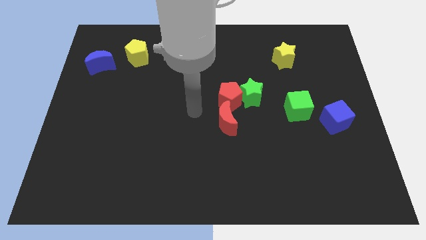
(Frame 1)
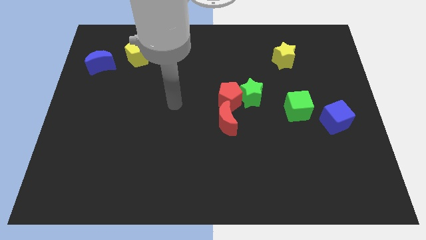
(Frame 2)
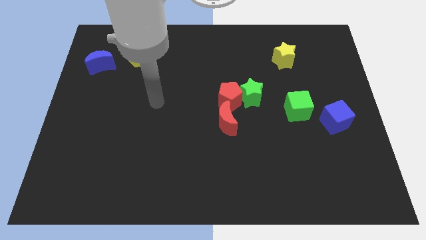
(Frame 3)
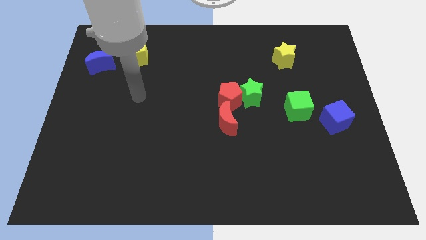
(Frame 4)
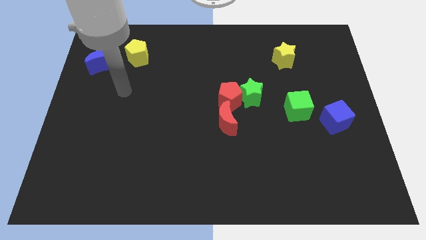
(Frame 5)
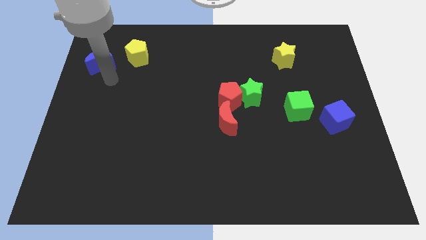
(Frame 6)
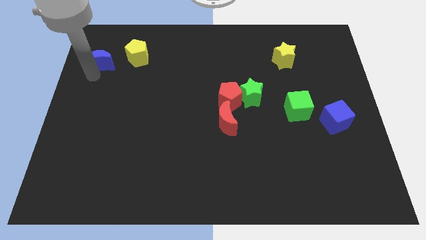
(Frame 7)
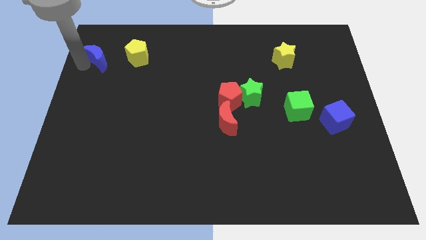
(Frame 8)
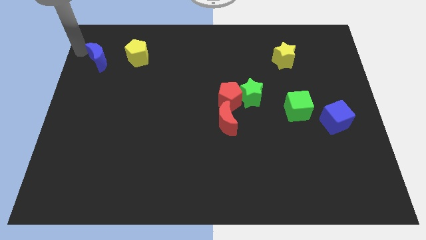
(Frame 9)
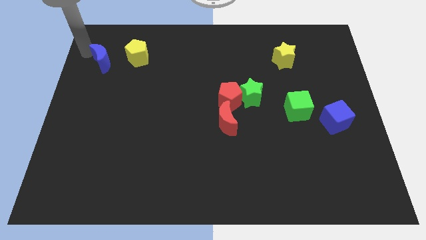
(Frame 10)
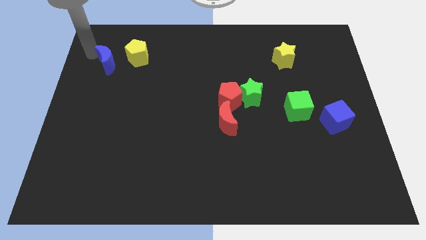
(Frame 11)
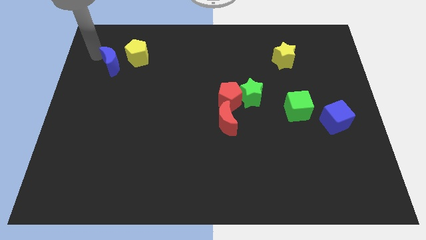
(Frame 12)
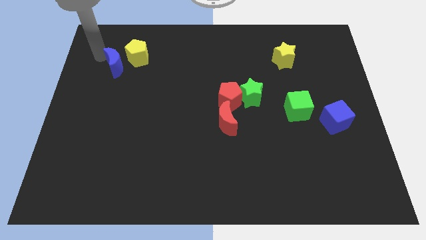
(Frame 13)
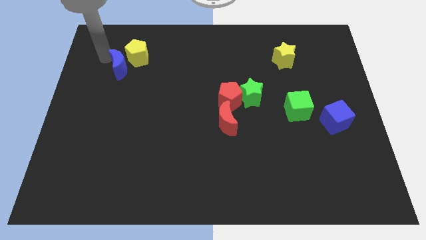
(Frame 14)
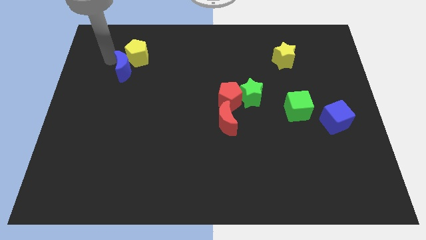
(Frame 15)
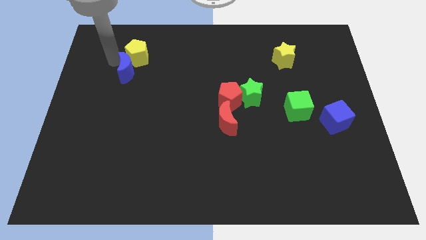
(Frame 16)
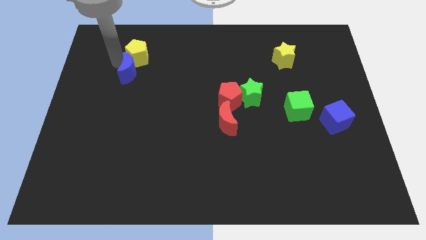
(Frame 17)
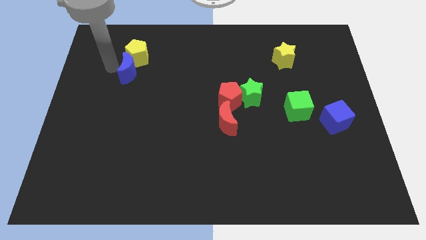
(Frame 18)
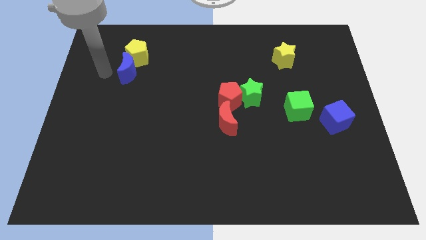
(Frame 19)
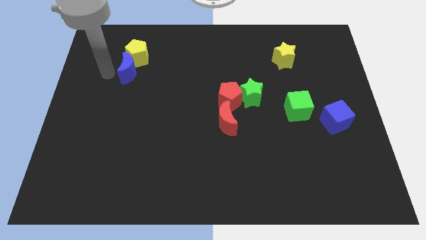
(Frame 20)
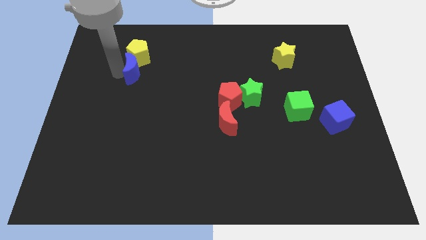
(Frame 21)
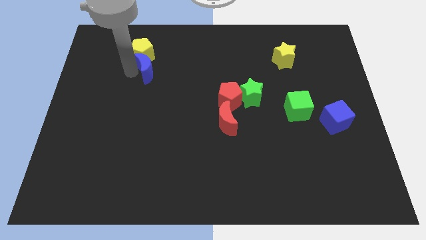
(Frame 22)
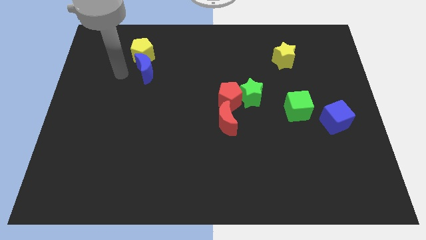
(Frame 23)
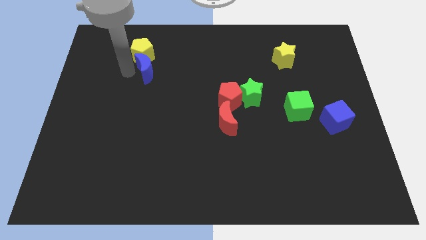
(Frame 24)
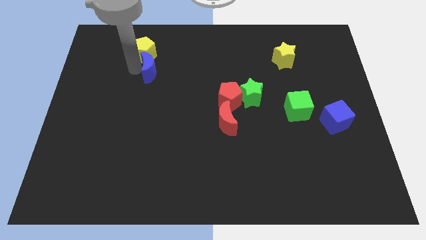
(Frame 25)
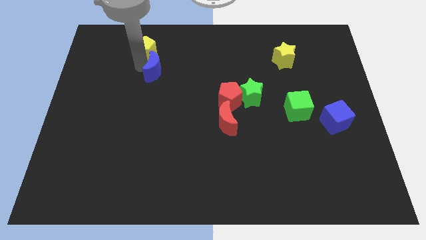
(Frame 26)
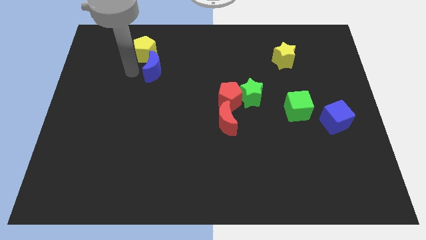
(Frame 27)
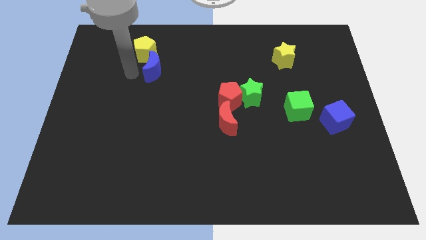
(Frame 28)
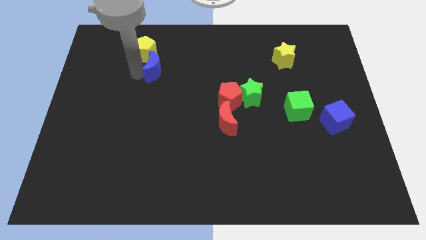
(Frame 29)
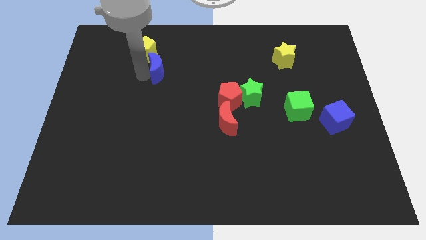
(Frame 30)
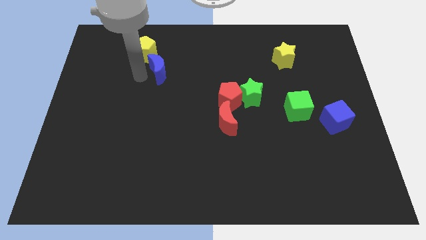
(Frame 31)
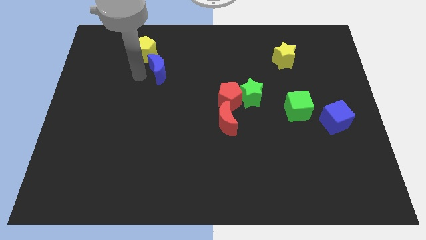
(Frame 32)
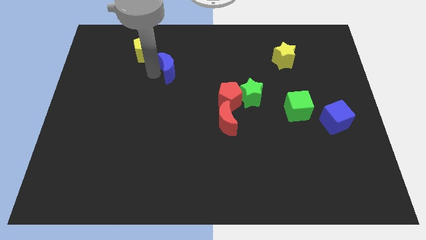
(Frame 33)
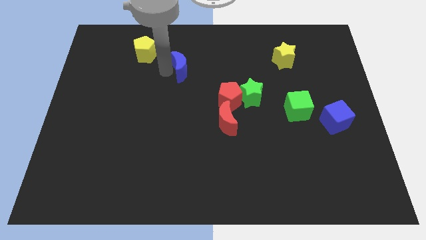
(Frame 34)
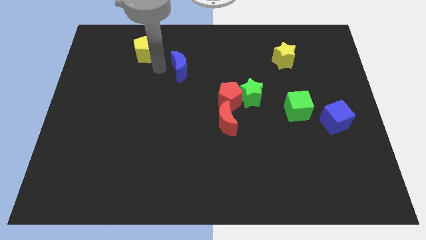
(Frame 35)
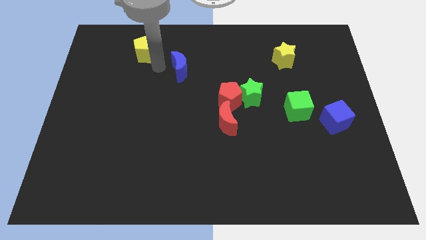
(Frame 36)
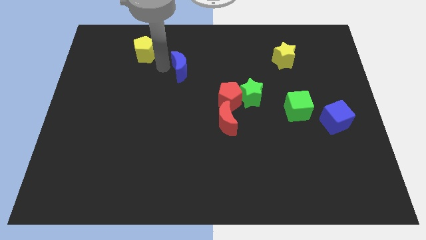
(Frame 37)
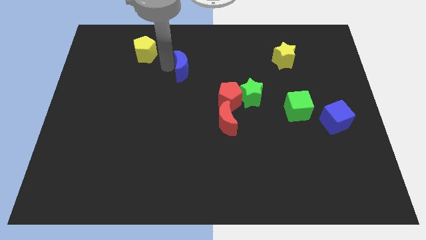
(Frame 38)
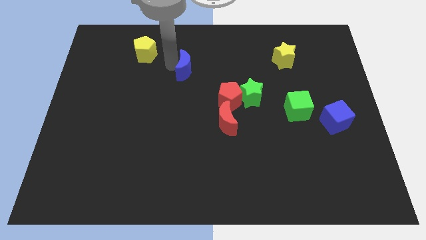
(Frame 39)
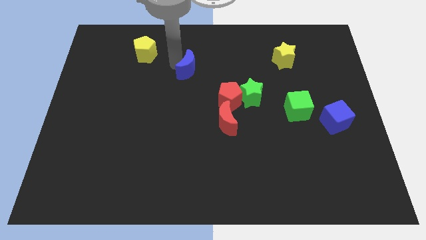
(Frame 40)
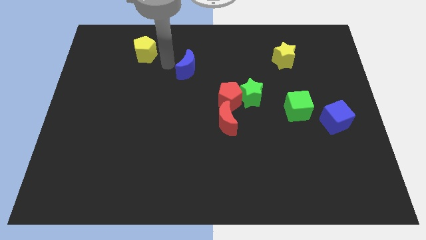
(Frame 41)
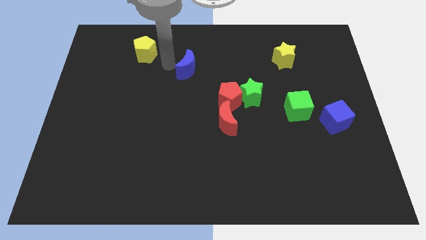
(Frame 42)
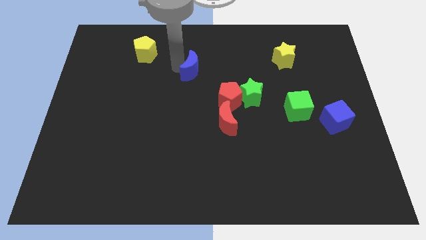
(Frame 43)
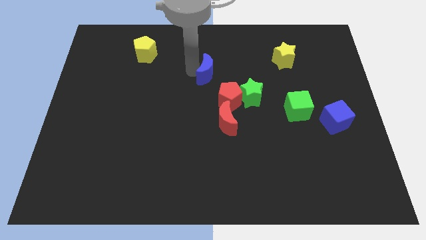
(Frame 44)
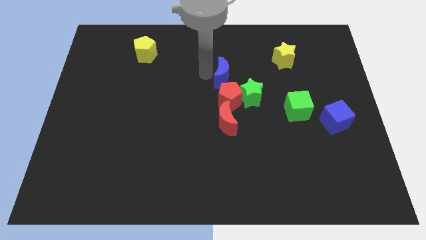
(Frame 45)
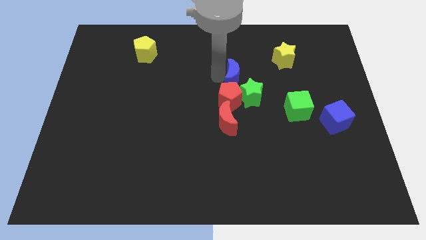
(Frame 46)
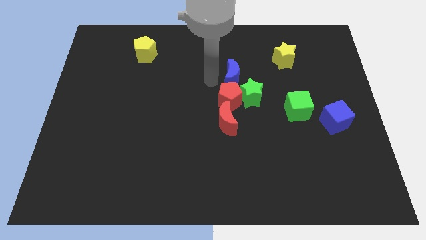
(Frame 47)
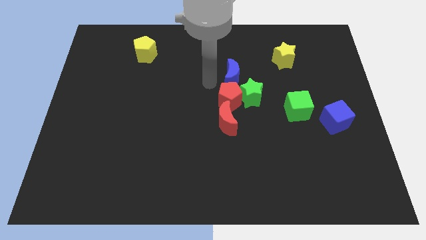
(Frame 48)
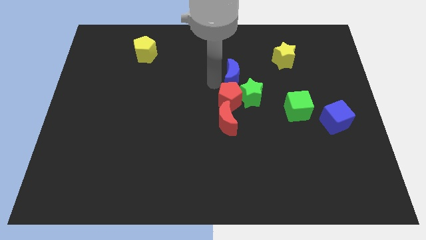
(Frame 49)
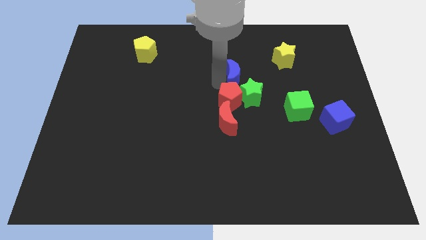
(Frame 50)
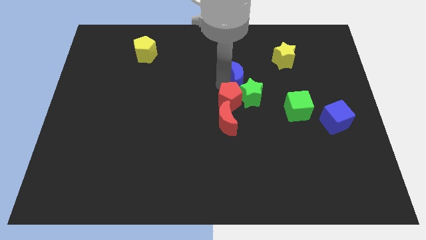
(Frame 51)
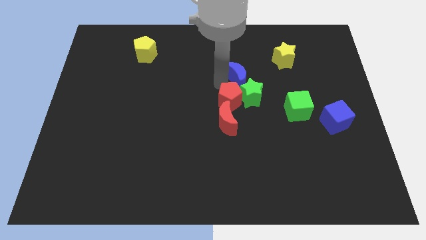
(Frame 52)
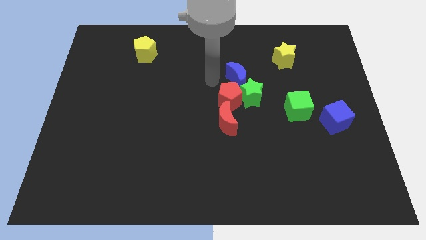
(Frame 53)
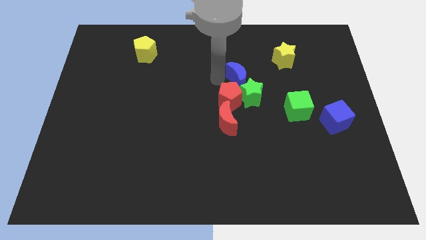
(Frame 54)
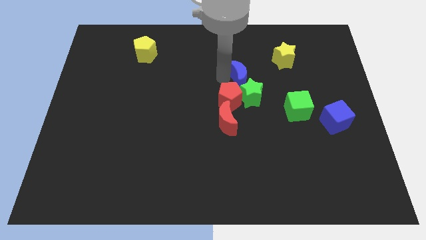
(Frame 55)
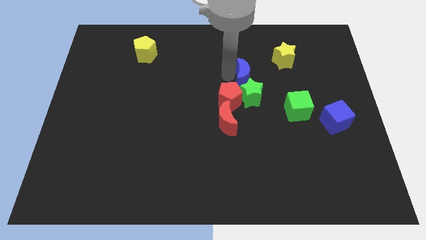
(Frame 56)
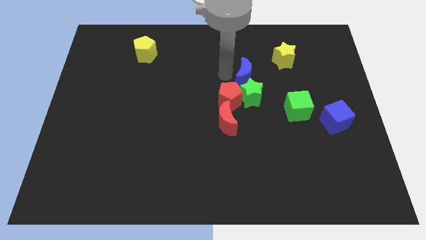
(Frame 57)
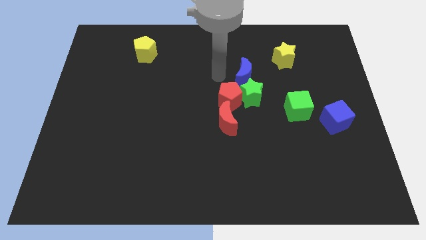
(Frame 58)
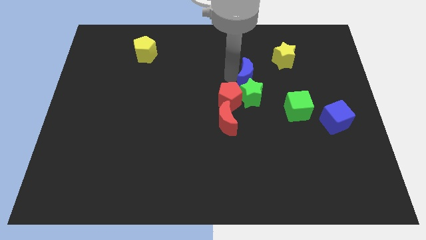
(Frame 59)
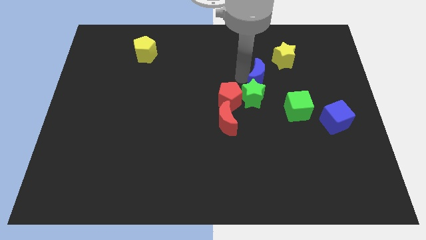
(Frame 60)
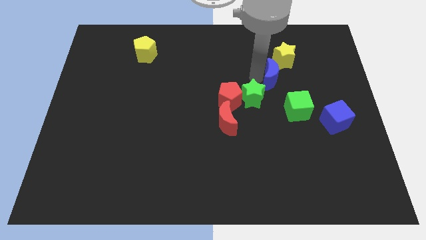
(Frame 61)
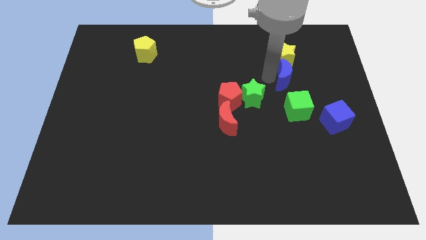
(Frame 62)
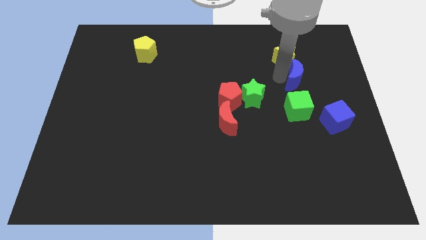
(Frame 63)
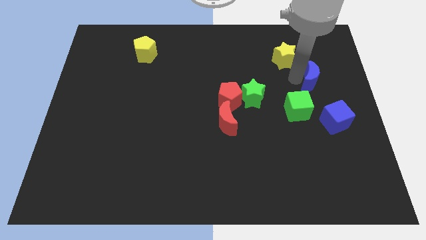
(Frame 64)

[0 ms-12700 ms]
slide the blue moon above the blue cube

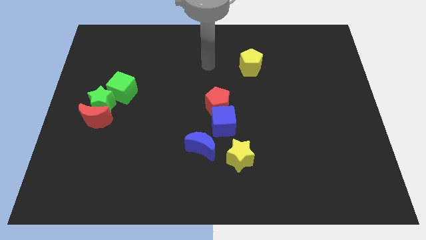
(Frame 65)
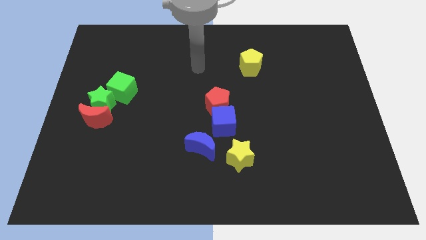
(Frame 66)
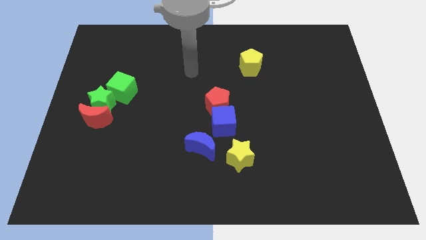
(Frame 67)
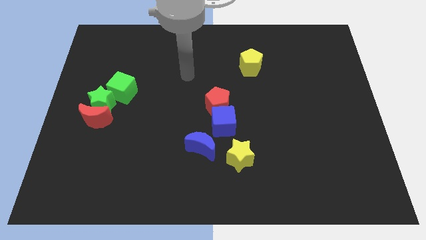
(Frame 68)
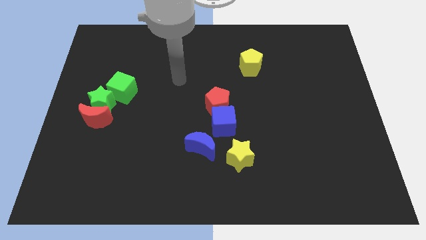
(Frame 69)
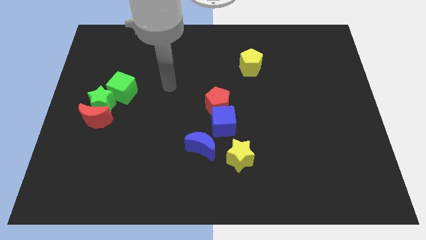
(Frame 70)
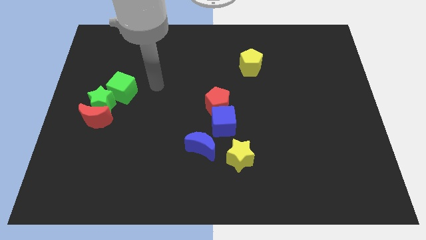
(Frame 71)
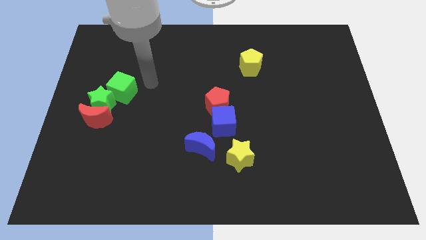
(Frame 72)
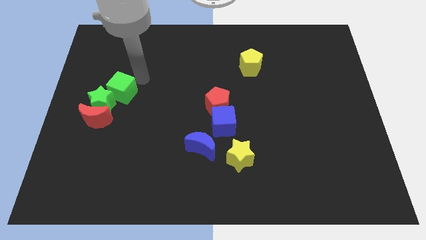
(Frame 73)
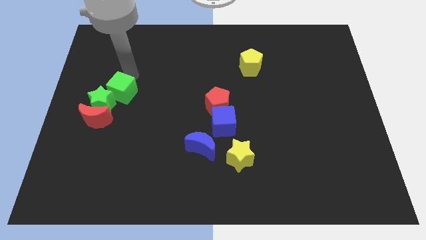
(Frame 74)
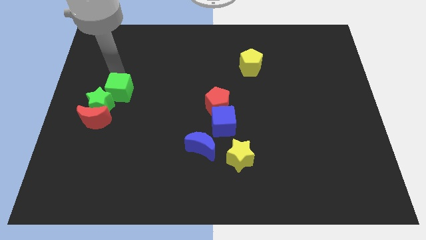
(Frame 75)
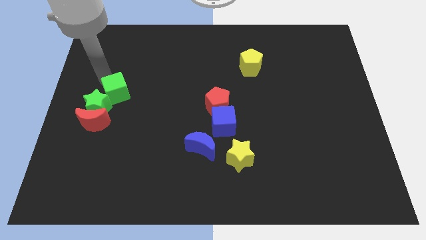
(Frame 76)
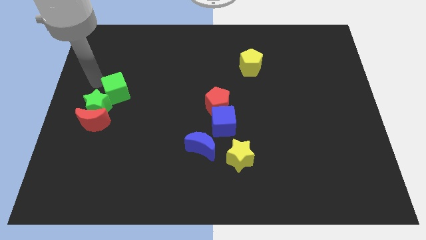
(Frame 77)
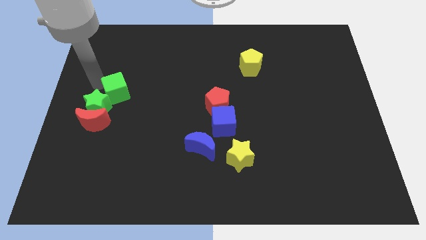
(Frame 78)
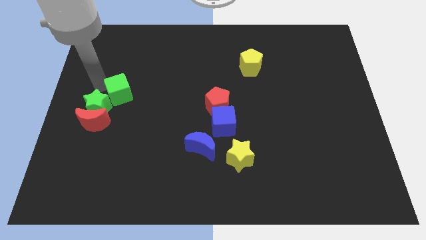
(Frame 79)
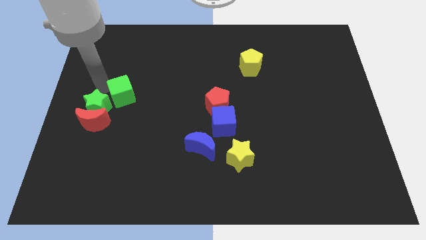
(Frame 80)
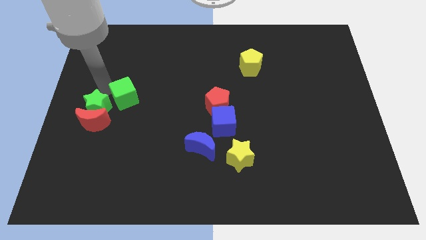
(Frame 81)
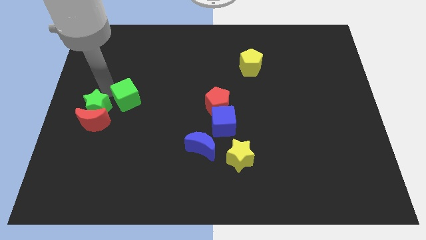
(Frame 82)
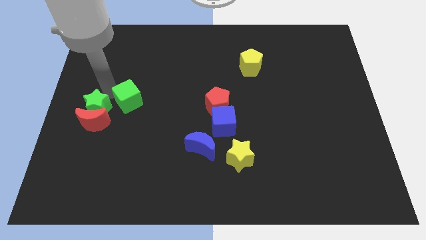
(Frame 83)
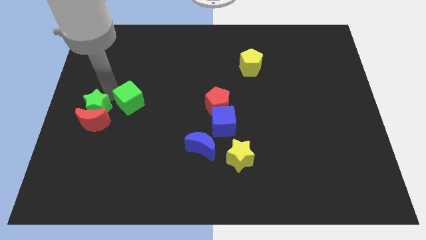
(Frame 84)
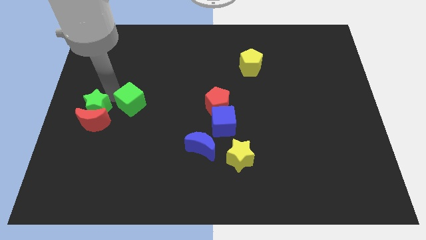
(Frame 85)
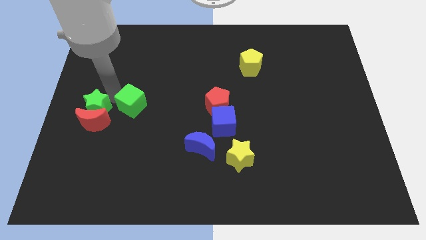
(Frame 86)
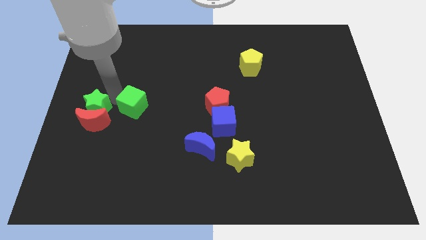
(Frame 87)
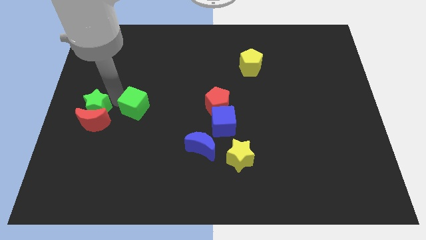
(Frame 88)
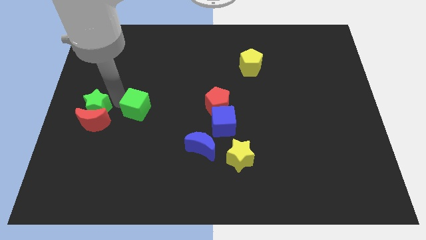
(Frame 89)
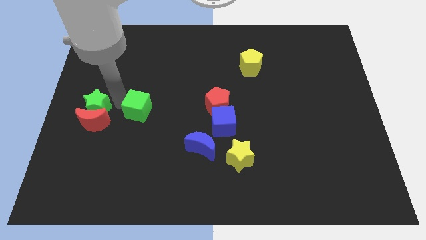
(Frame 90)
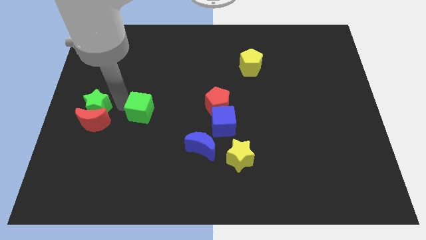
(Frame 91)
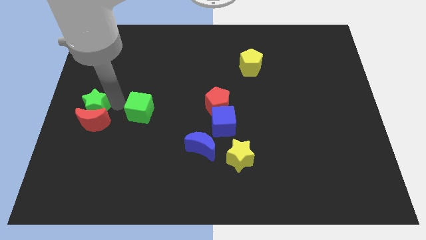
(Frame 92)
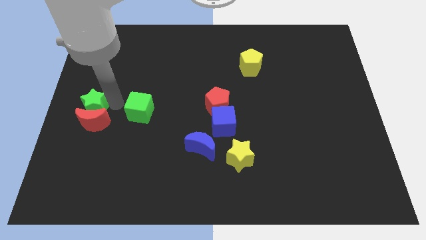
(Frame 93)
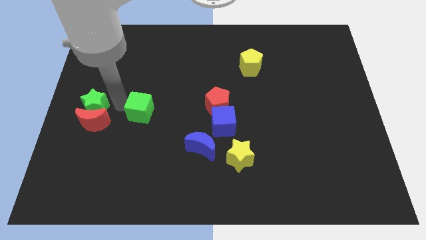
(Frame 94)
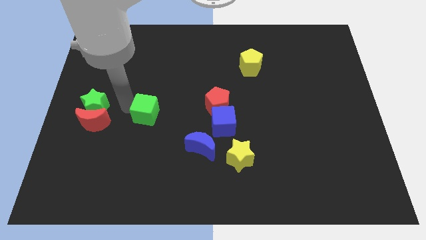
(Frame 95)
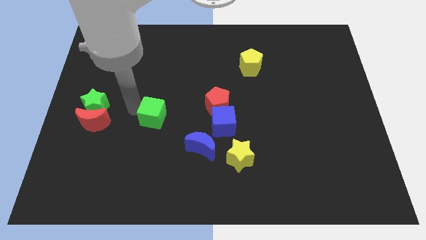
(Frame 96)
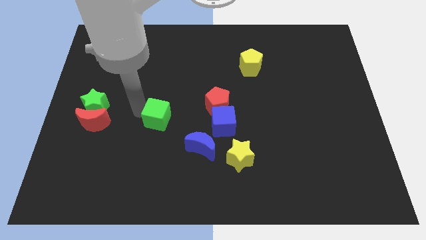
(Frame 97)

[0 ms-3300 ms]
put the green cube to the left side of the blue cube
